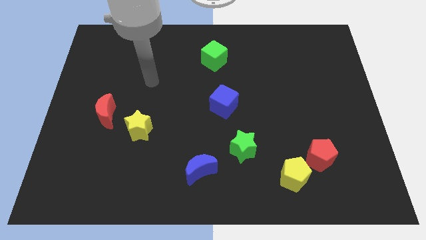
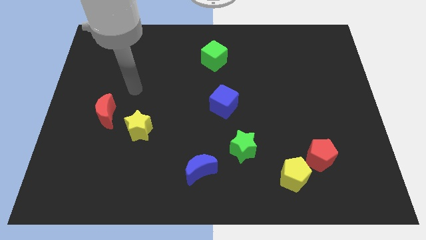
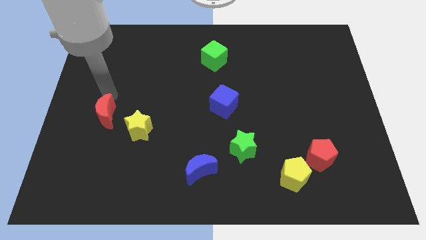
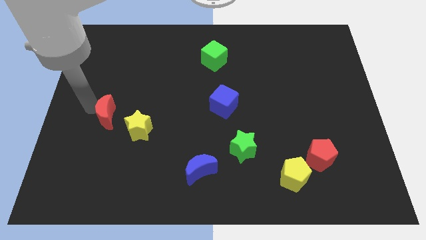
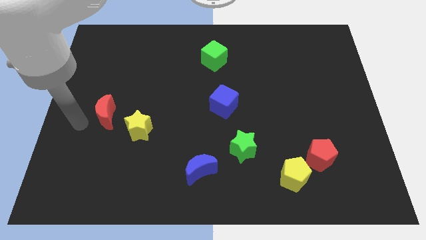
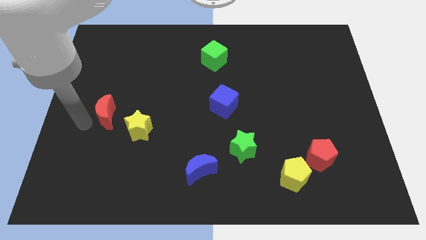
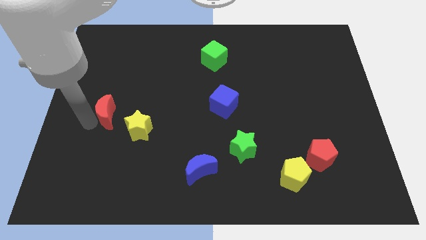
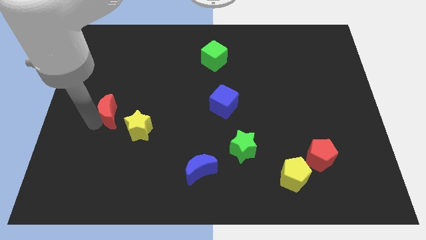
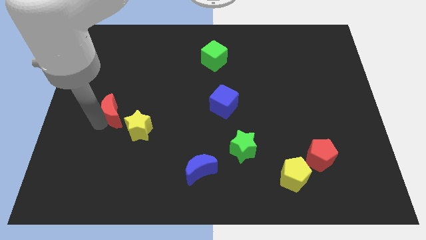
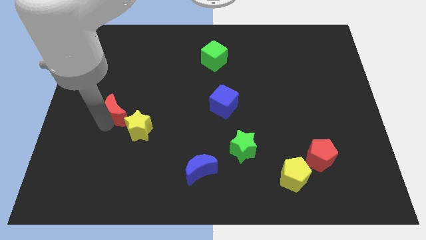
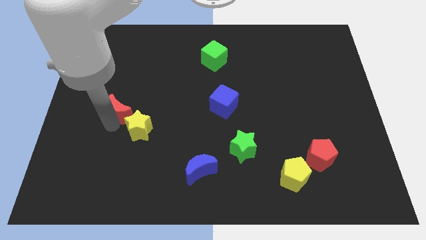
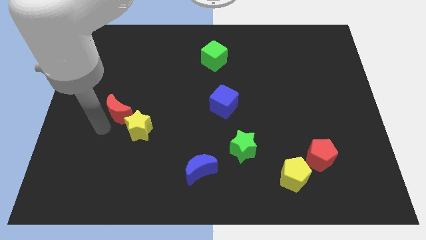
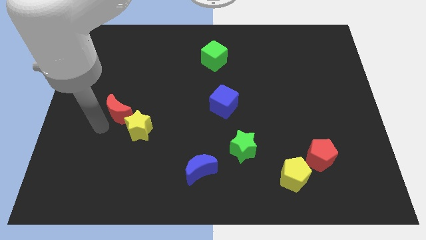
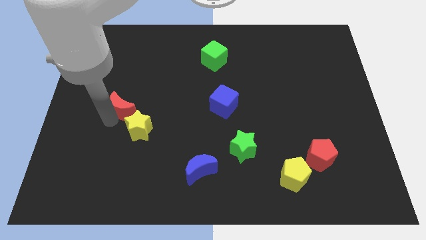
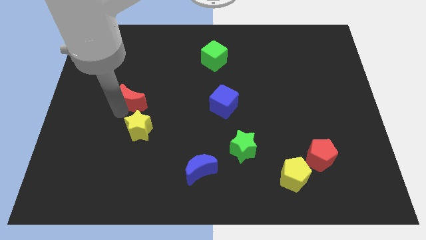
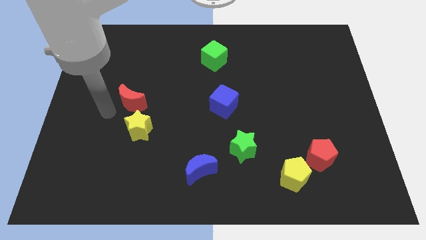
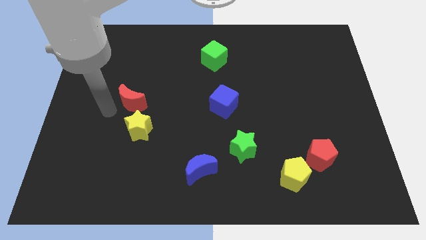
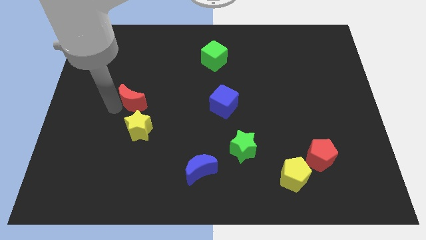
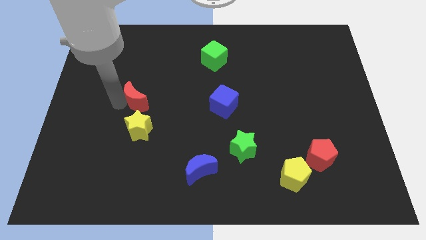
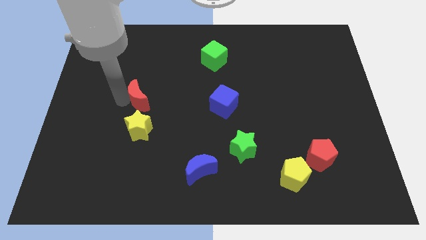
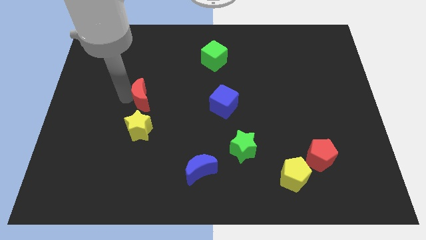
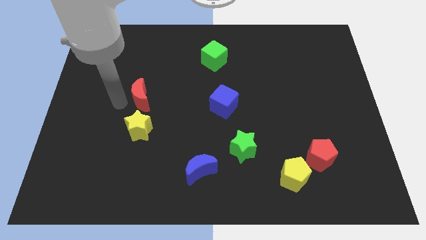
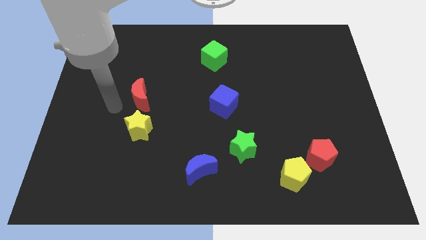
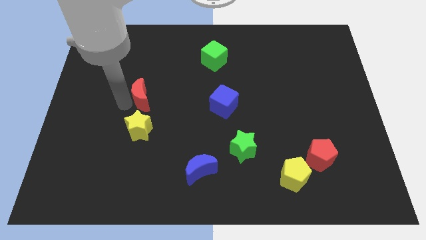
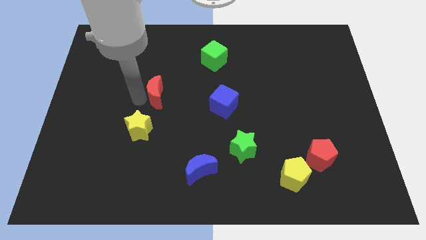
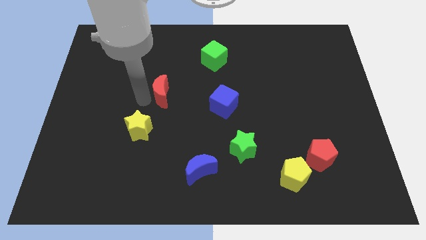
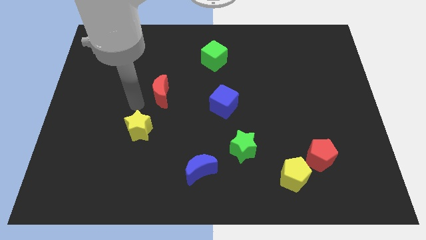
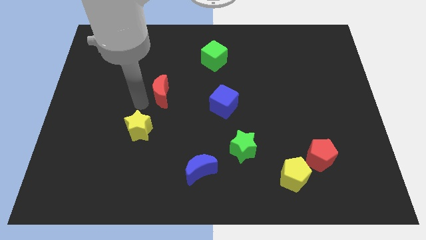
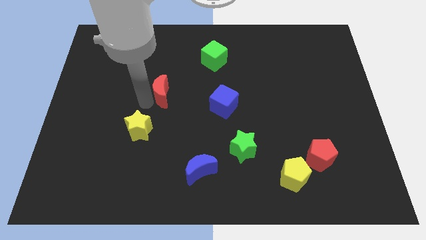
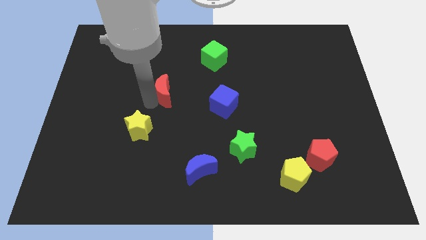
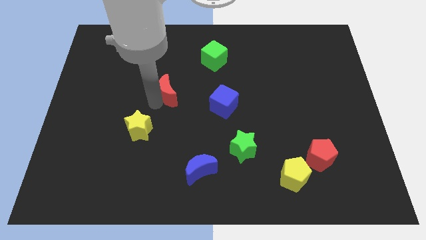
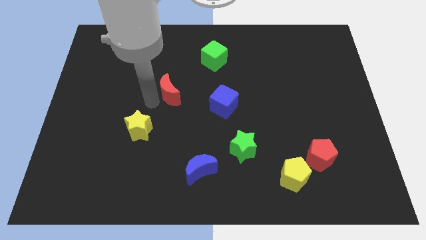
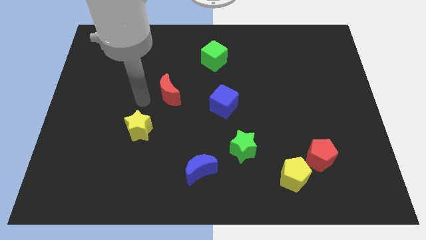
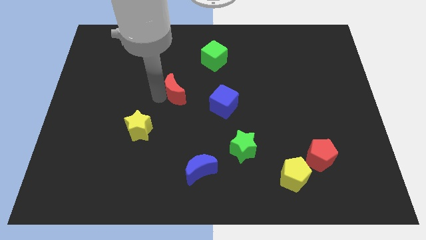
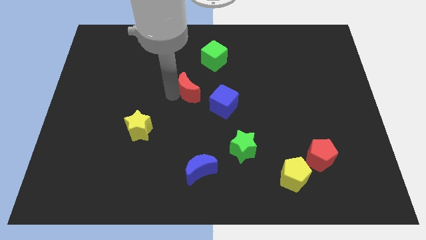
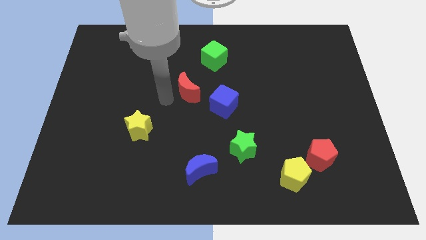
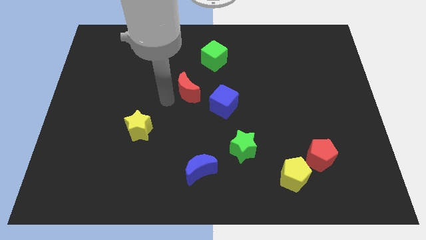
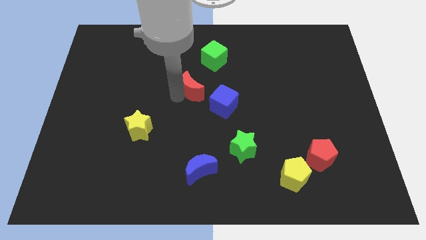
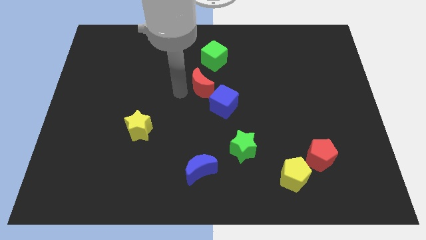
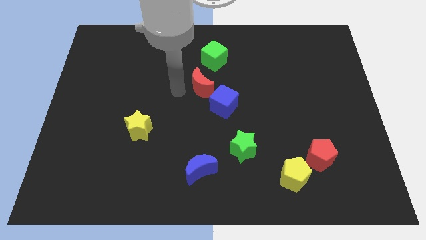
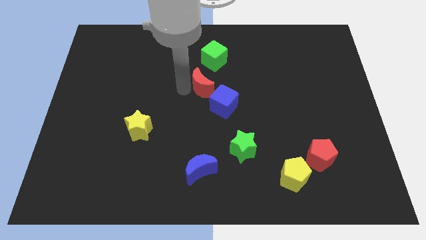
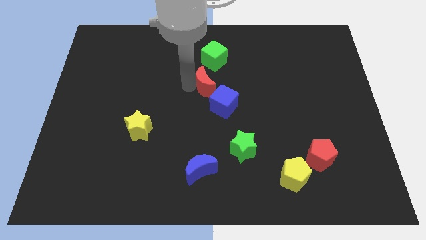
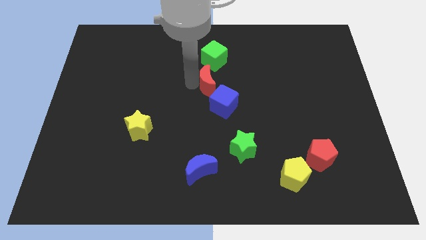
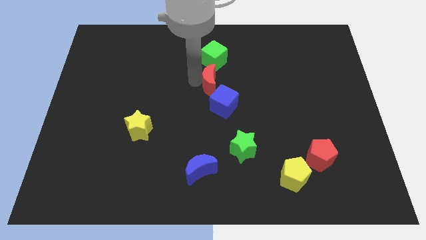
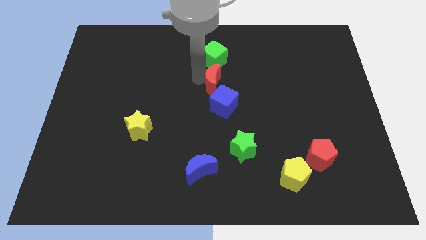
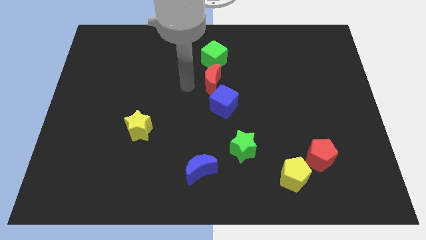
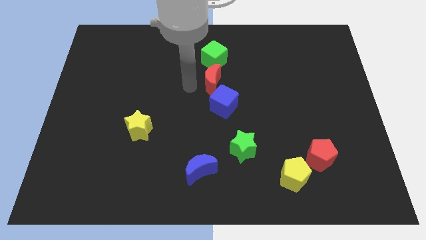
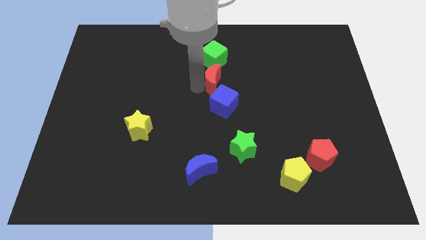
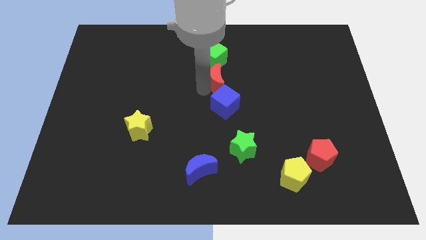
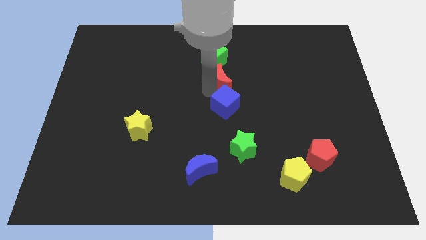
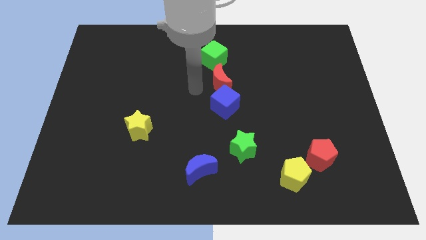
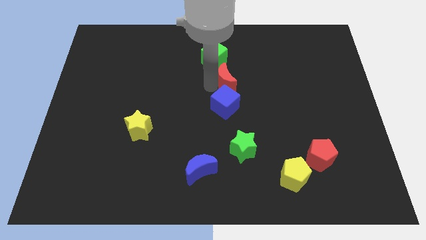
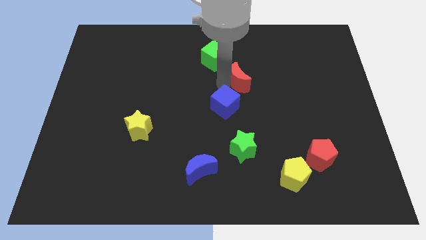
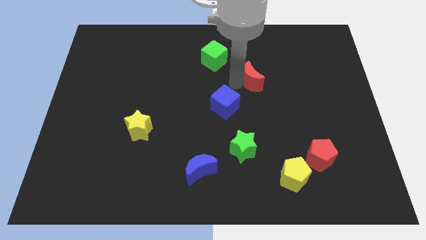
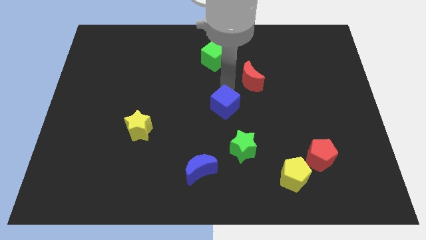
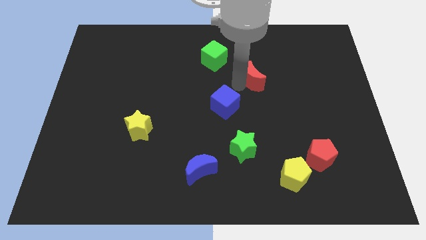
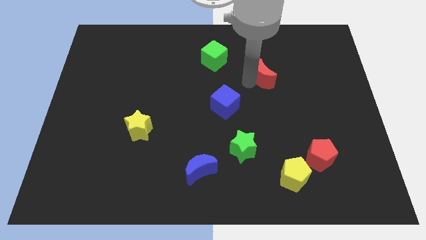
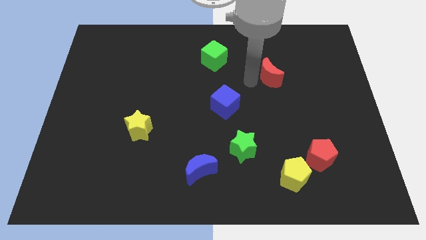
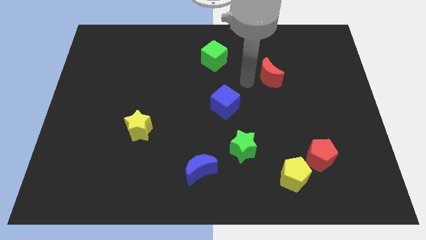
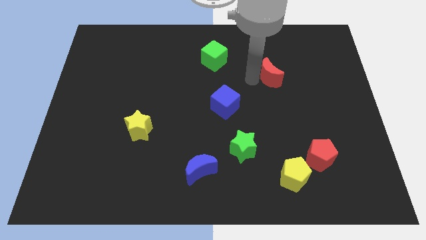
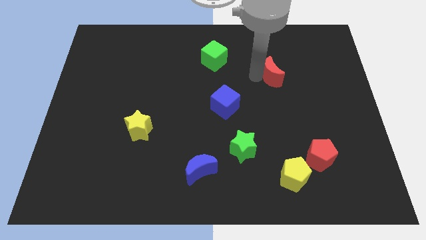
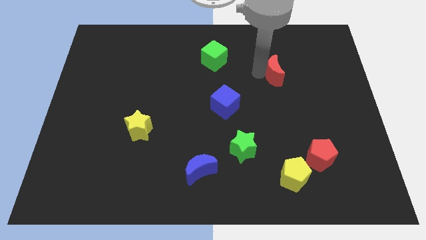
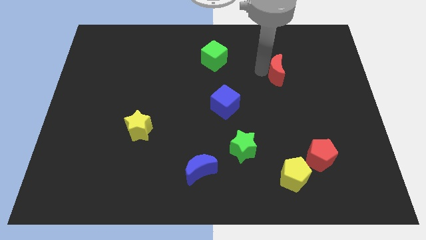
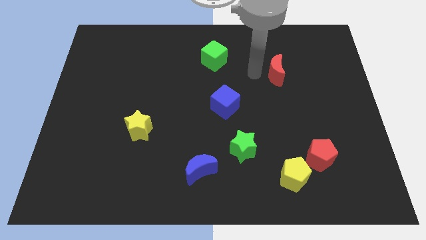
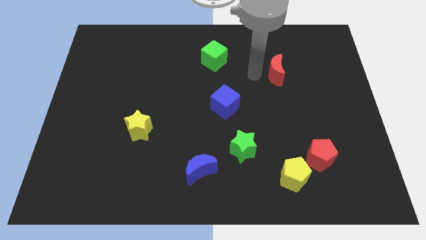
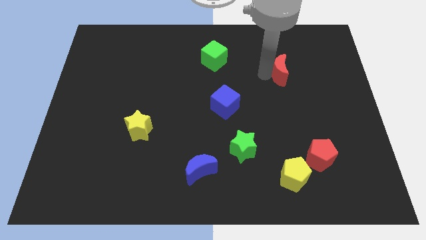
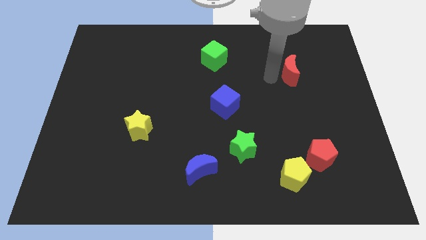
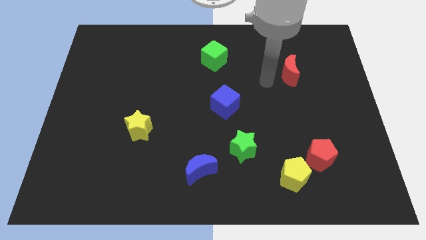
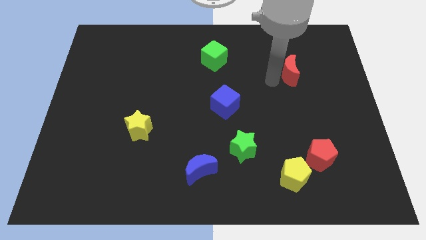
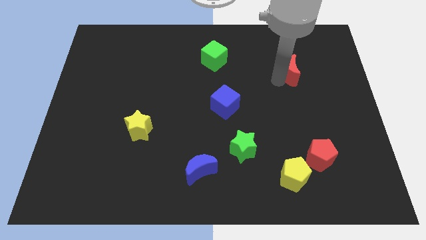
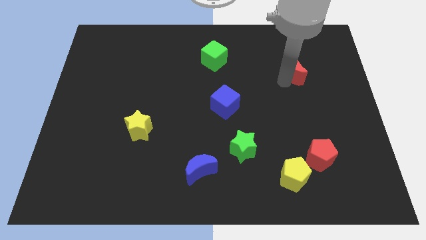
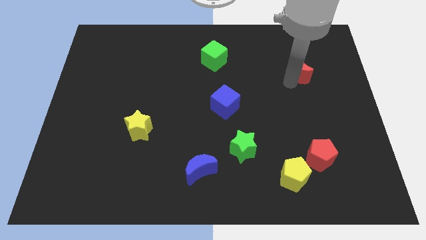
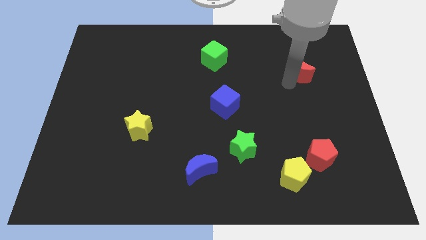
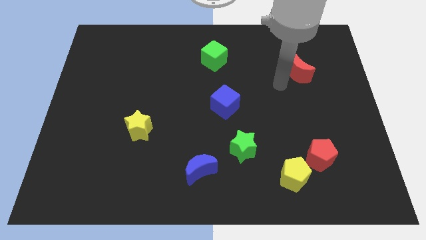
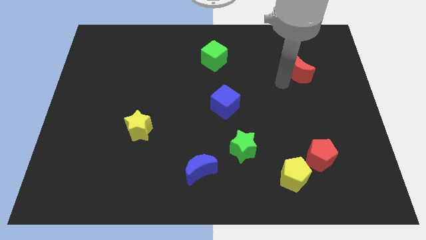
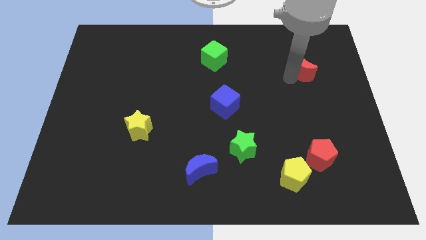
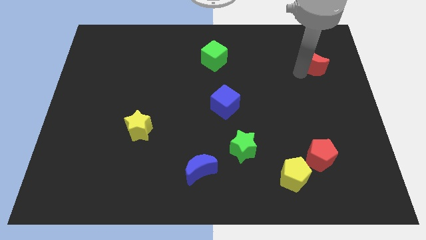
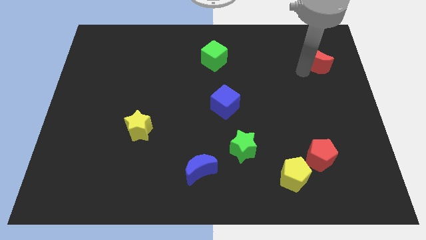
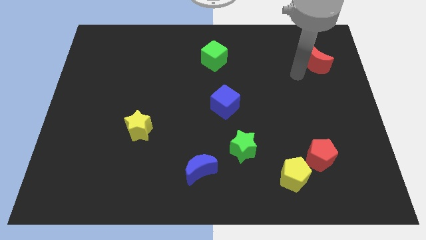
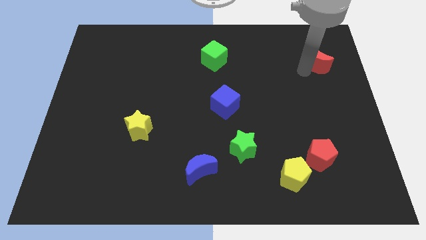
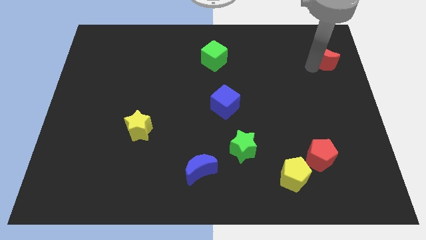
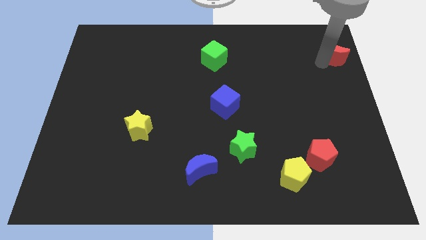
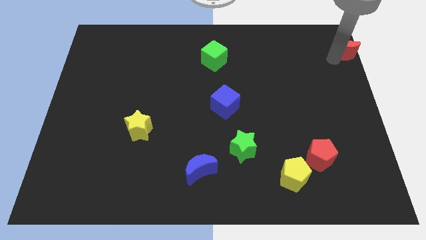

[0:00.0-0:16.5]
slide the red moon to the upper right corner
